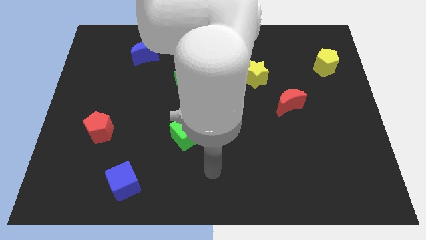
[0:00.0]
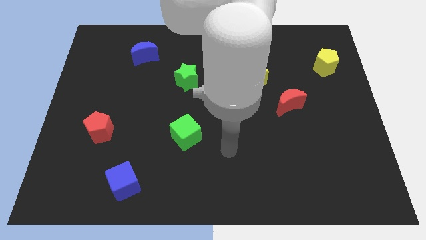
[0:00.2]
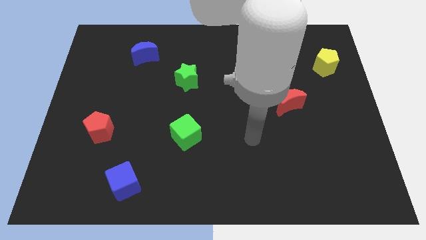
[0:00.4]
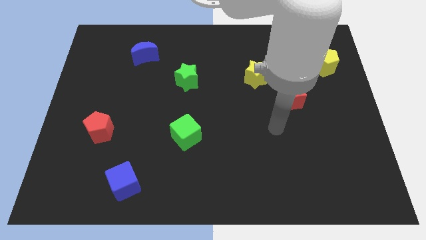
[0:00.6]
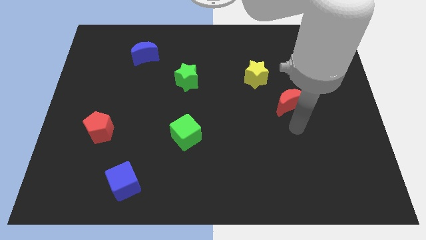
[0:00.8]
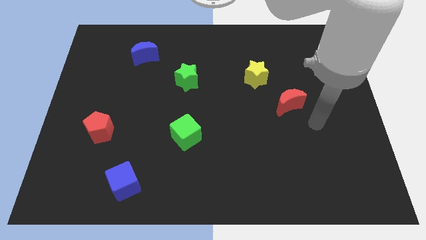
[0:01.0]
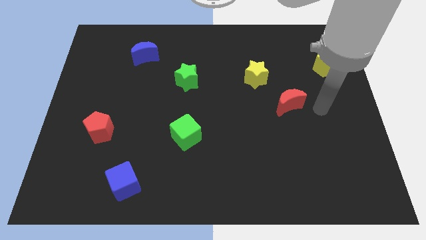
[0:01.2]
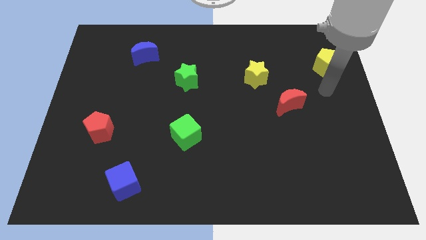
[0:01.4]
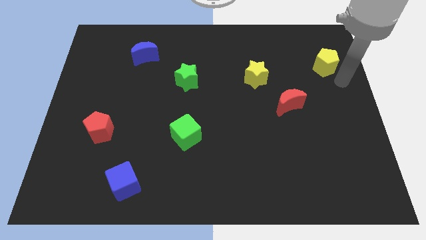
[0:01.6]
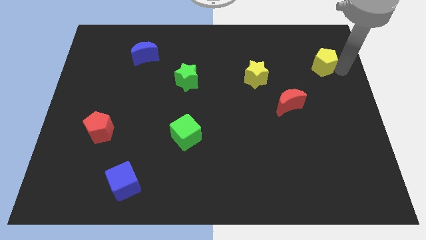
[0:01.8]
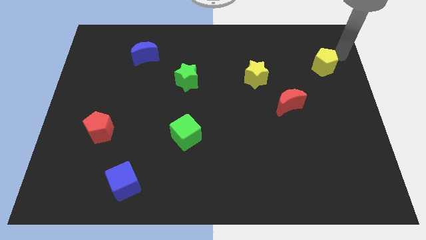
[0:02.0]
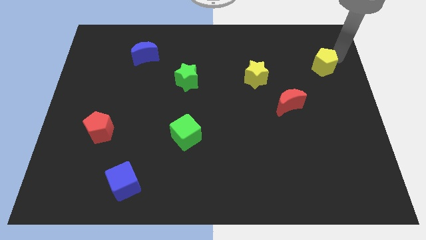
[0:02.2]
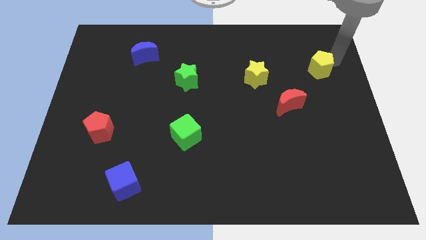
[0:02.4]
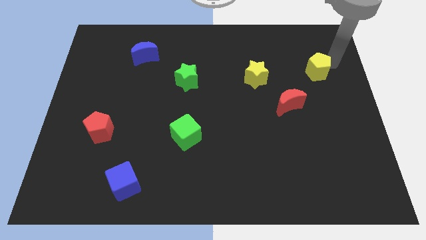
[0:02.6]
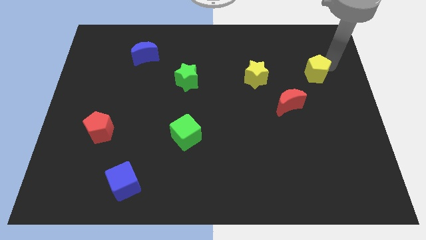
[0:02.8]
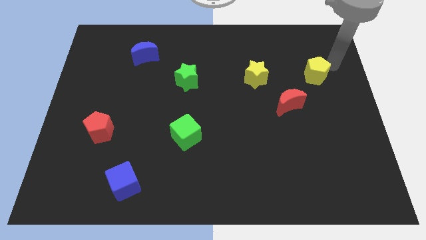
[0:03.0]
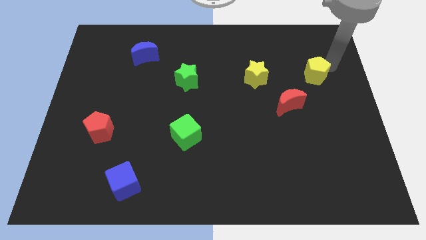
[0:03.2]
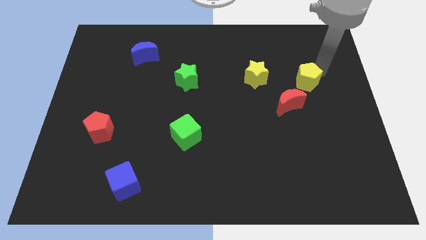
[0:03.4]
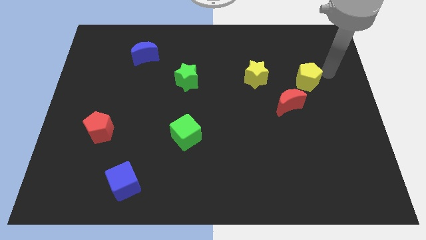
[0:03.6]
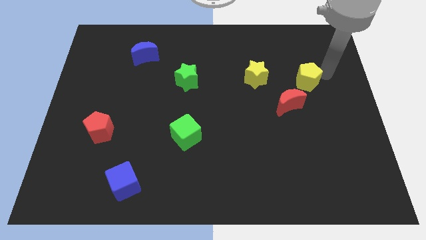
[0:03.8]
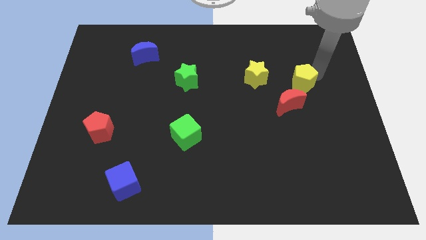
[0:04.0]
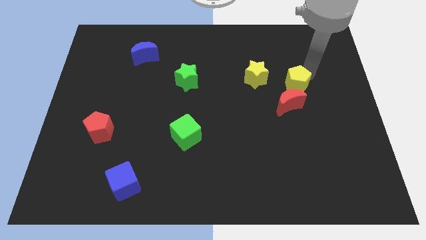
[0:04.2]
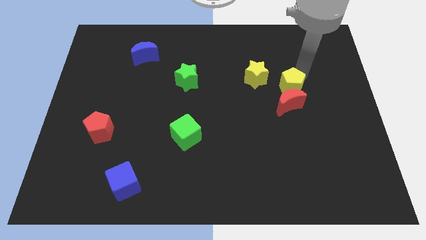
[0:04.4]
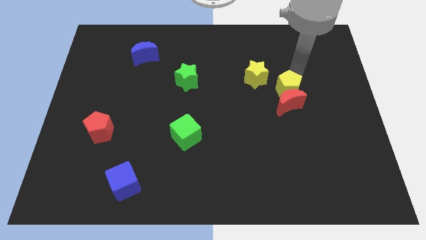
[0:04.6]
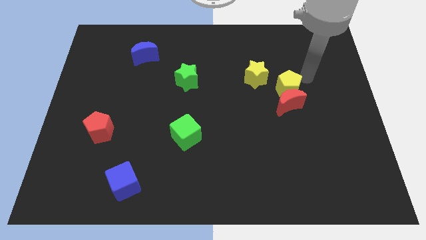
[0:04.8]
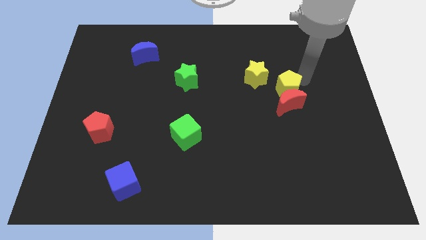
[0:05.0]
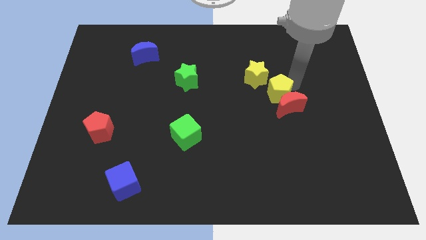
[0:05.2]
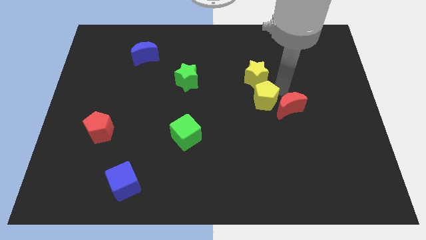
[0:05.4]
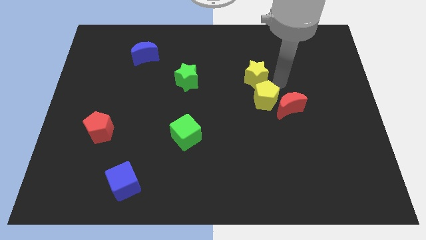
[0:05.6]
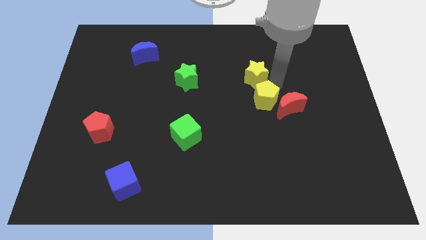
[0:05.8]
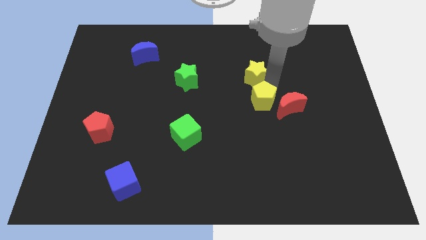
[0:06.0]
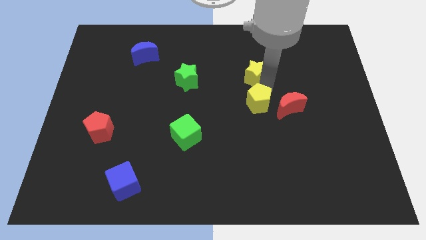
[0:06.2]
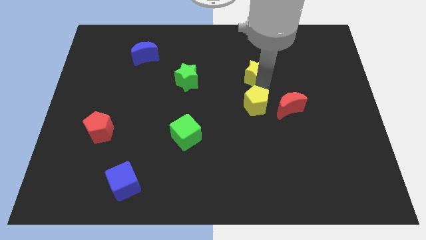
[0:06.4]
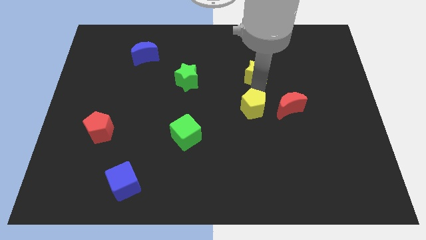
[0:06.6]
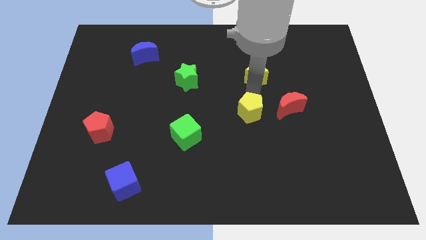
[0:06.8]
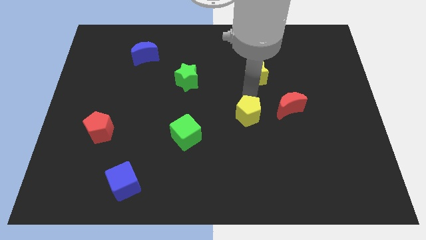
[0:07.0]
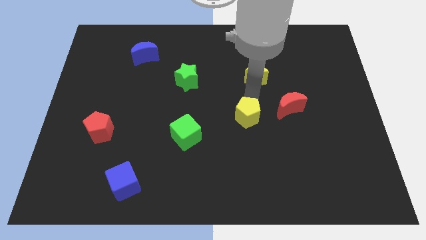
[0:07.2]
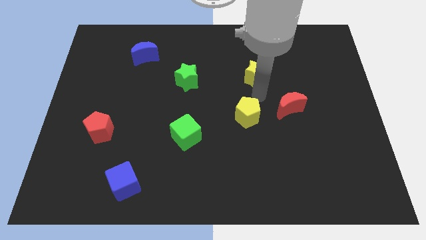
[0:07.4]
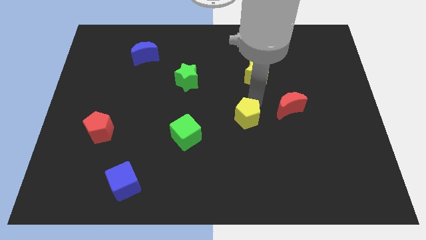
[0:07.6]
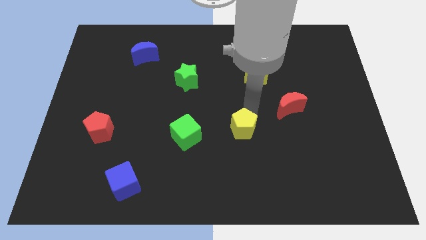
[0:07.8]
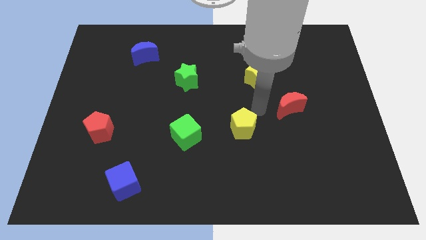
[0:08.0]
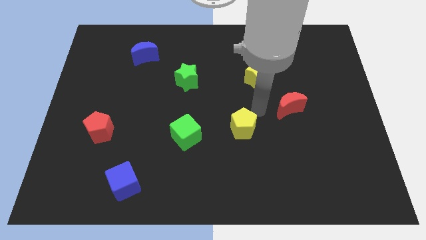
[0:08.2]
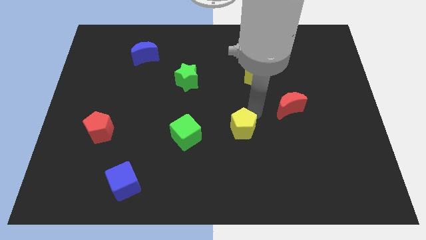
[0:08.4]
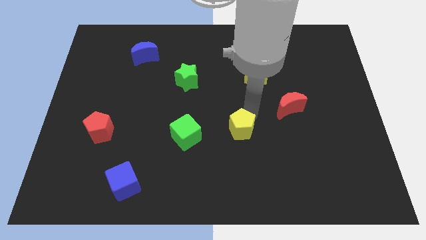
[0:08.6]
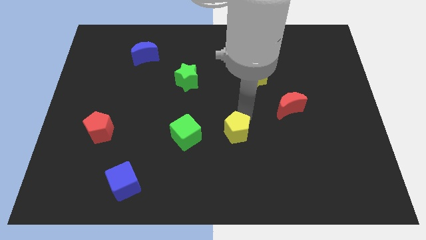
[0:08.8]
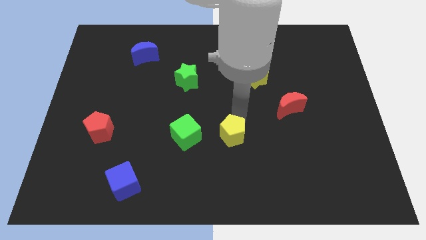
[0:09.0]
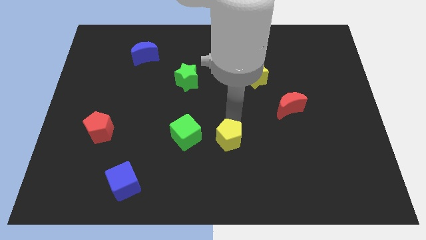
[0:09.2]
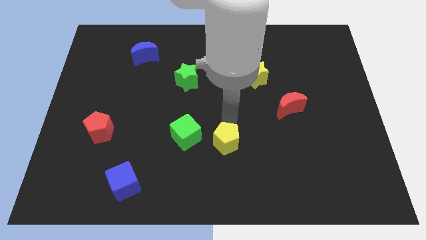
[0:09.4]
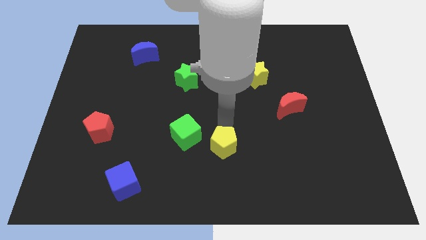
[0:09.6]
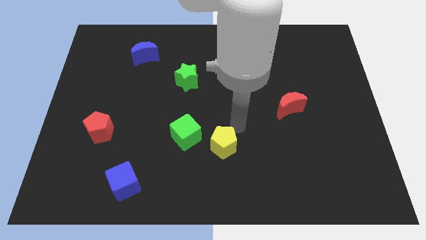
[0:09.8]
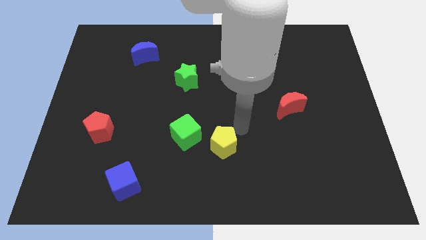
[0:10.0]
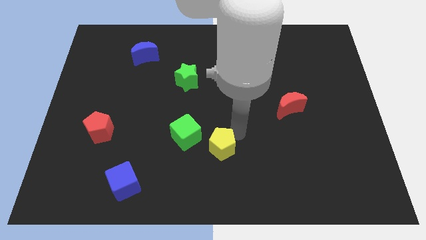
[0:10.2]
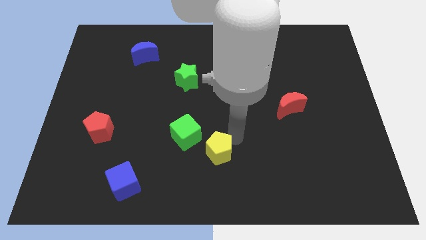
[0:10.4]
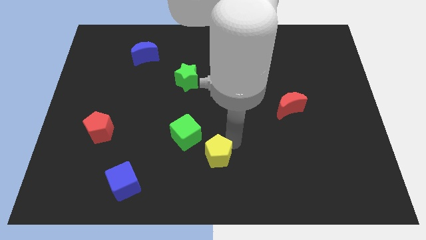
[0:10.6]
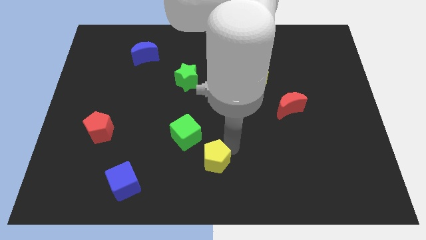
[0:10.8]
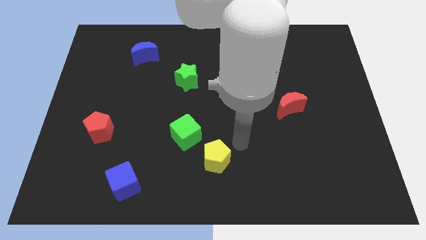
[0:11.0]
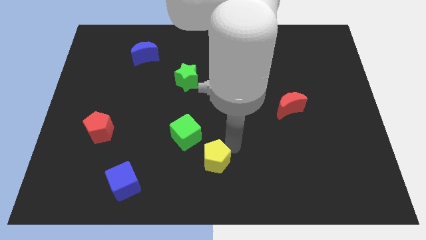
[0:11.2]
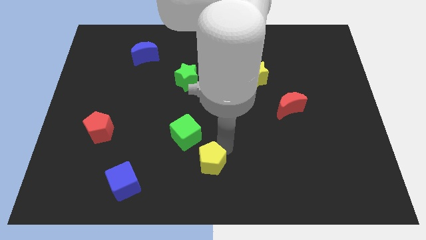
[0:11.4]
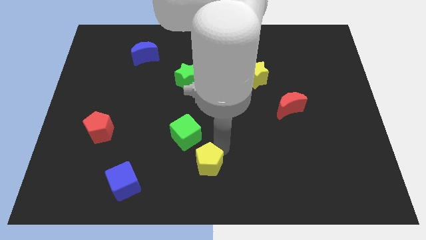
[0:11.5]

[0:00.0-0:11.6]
slide the yellow pentagon to the bottom of the green cube

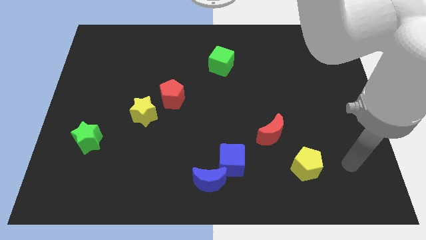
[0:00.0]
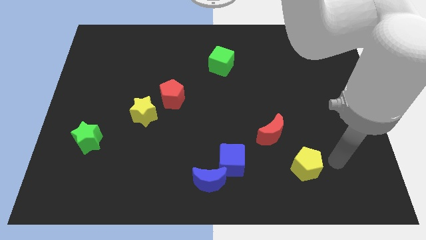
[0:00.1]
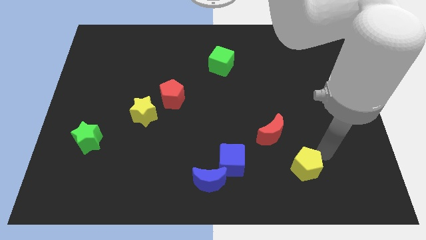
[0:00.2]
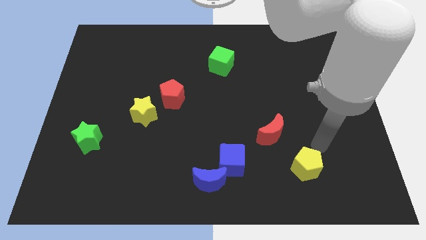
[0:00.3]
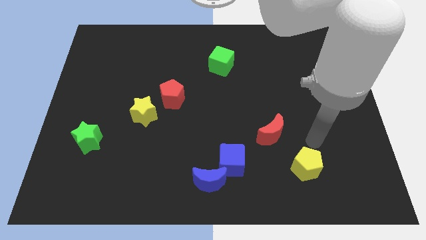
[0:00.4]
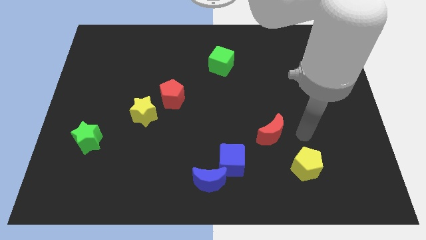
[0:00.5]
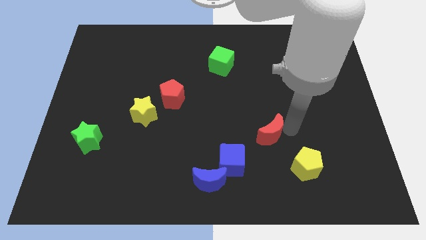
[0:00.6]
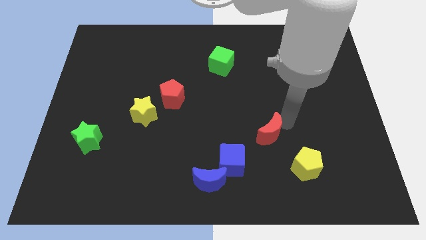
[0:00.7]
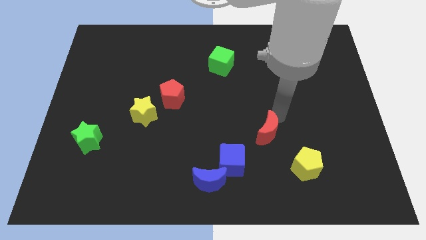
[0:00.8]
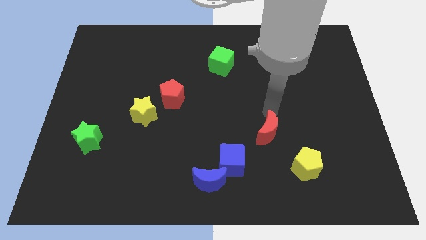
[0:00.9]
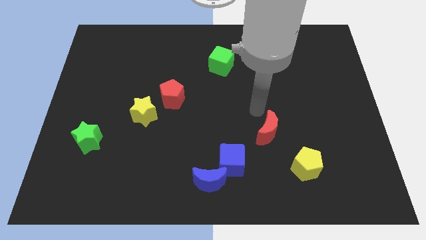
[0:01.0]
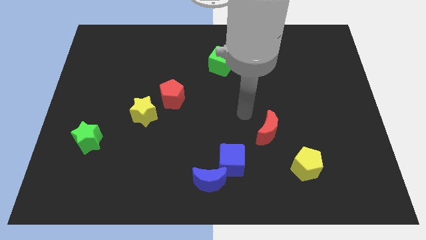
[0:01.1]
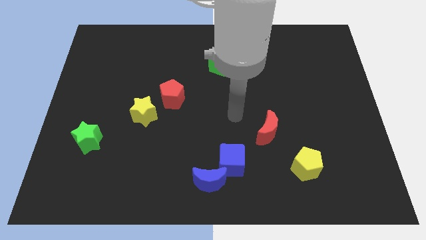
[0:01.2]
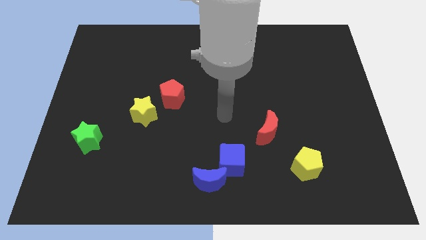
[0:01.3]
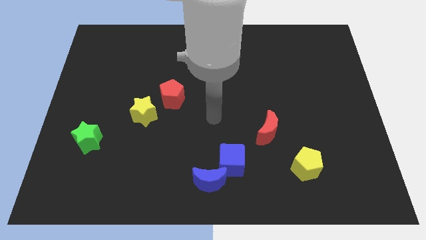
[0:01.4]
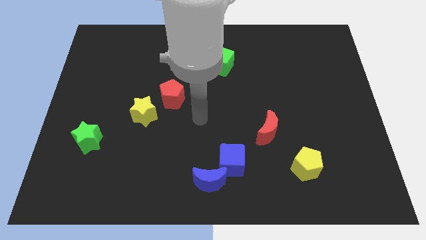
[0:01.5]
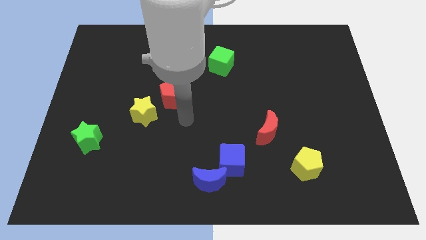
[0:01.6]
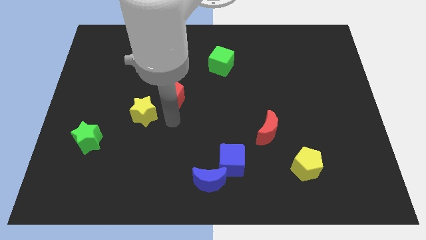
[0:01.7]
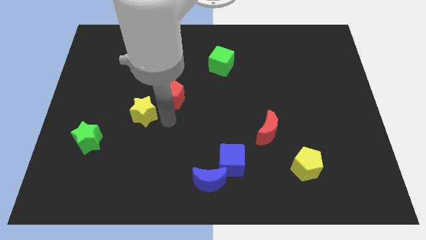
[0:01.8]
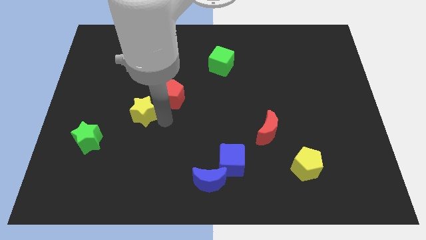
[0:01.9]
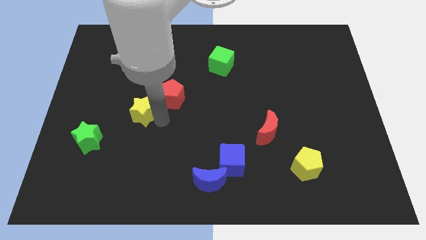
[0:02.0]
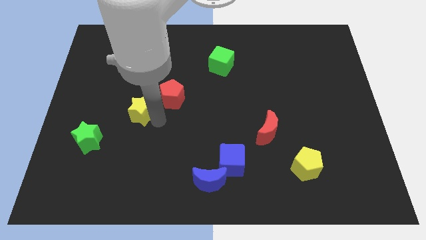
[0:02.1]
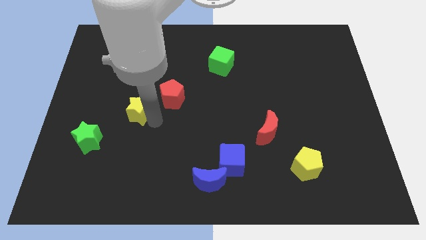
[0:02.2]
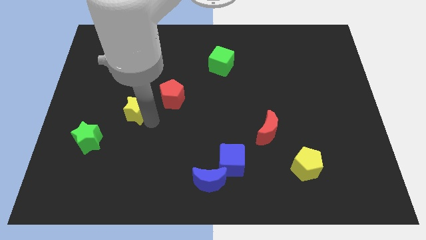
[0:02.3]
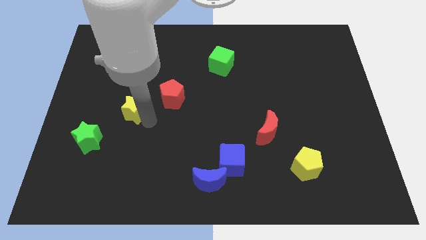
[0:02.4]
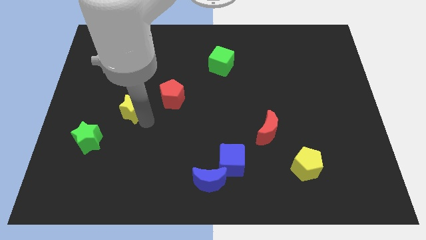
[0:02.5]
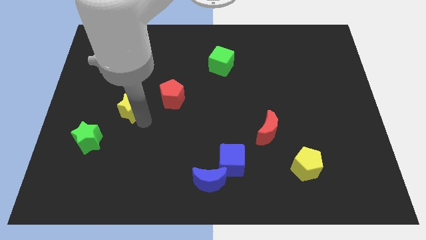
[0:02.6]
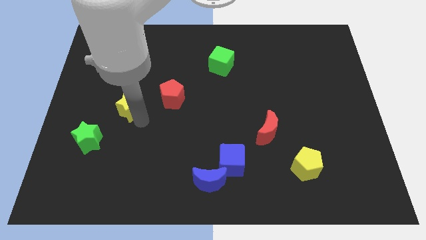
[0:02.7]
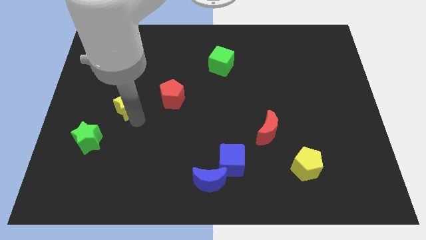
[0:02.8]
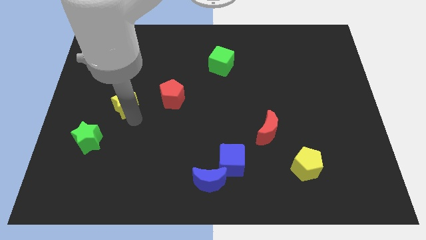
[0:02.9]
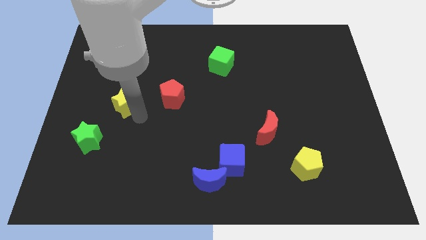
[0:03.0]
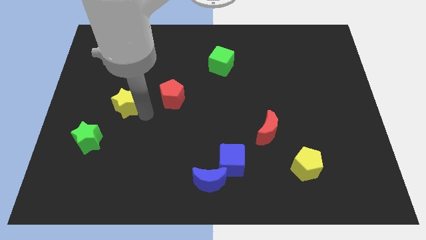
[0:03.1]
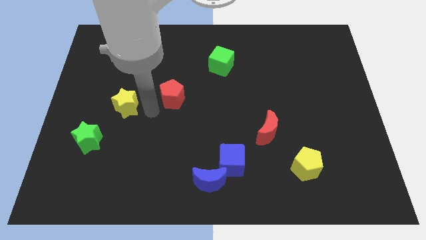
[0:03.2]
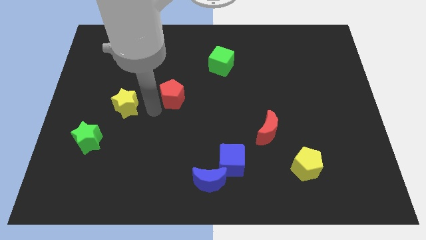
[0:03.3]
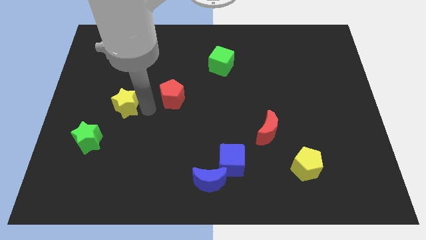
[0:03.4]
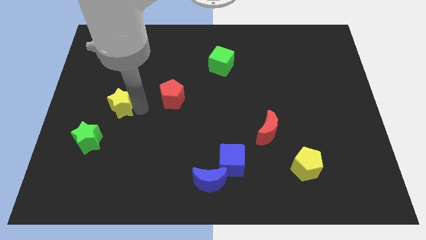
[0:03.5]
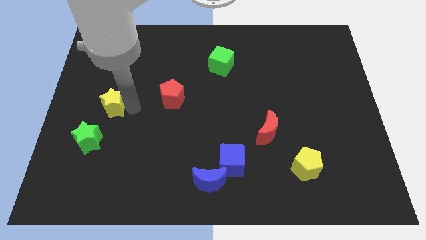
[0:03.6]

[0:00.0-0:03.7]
push the yellow star to the top of the green star
